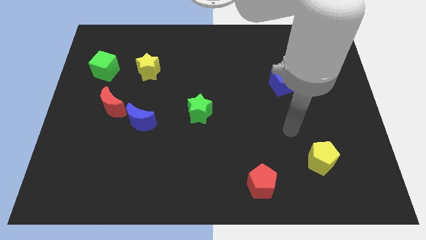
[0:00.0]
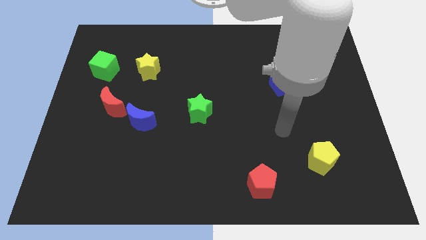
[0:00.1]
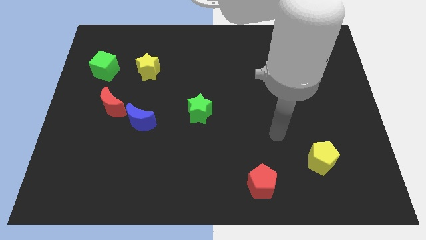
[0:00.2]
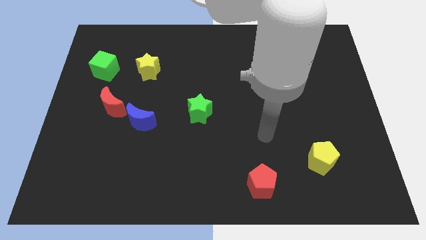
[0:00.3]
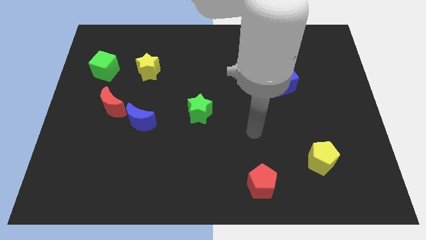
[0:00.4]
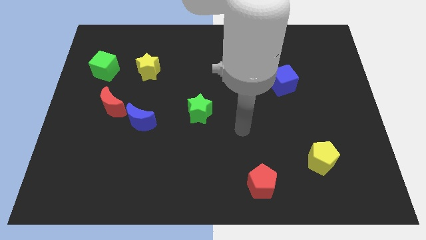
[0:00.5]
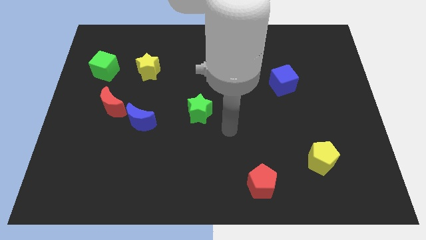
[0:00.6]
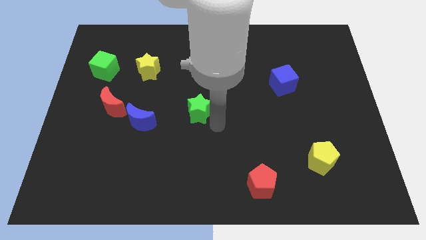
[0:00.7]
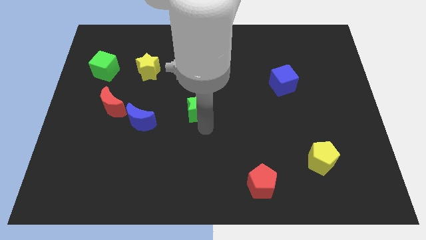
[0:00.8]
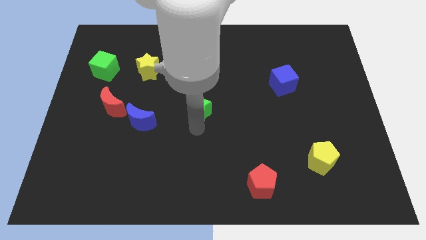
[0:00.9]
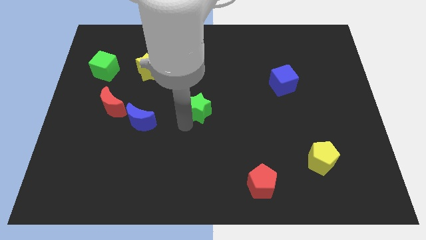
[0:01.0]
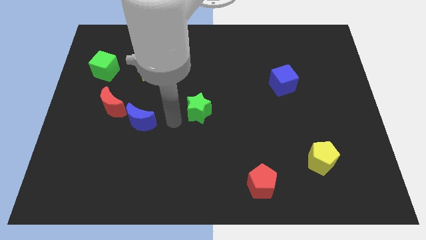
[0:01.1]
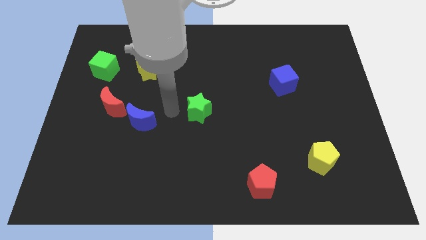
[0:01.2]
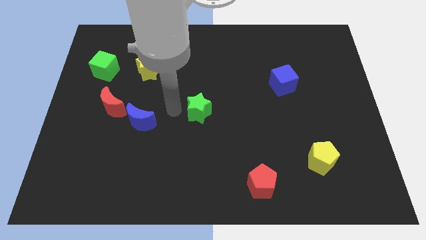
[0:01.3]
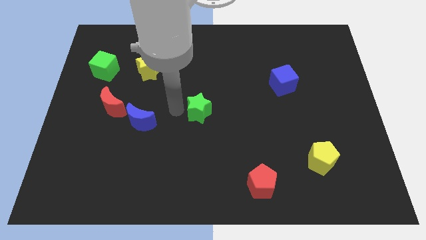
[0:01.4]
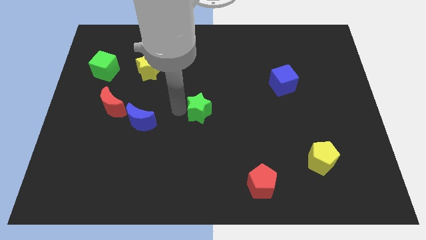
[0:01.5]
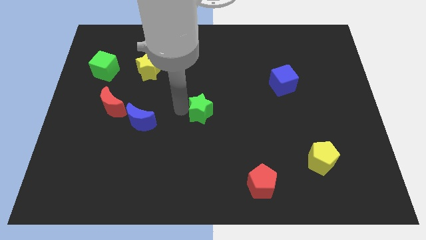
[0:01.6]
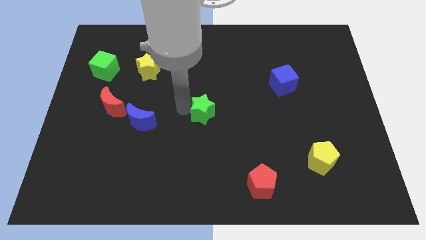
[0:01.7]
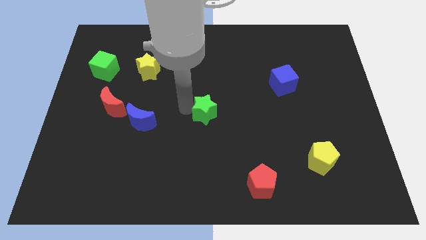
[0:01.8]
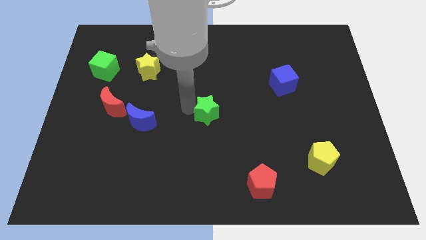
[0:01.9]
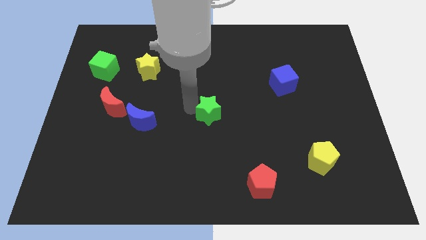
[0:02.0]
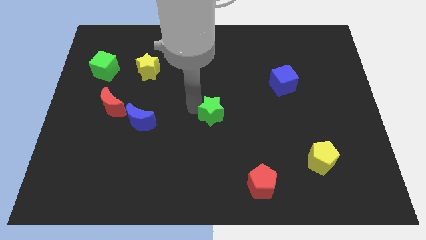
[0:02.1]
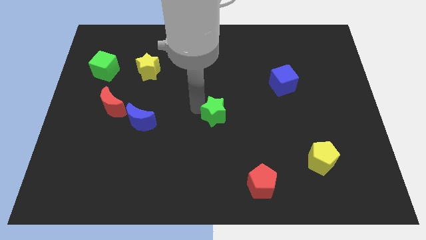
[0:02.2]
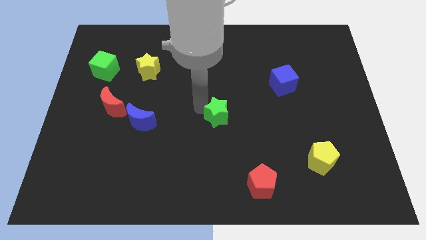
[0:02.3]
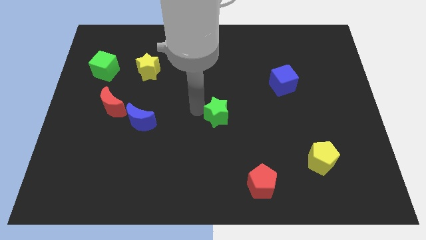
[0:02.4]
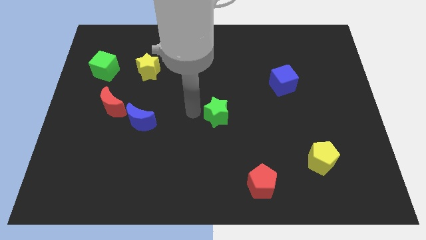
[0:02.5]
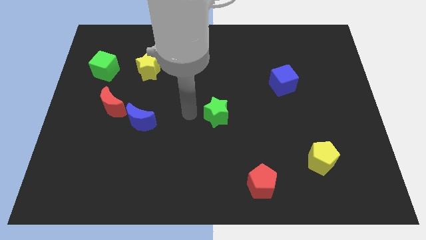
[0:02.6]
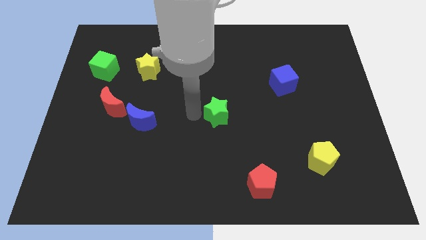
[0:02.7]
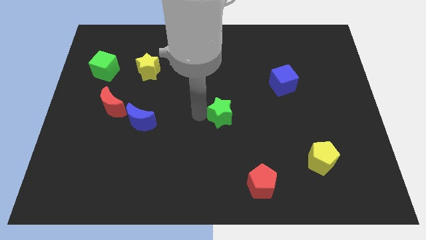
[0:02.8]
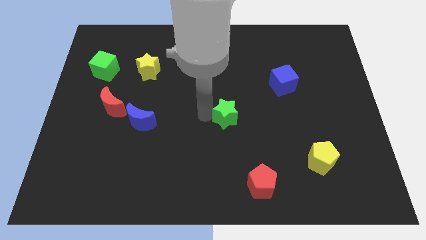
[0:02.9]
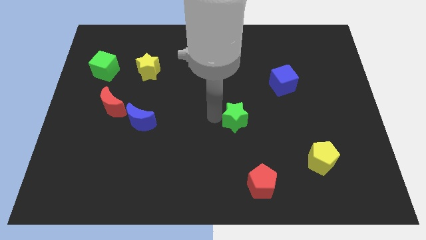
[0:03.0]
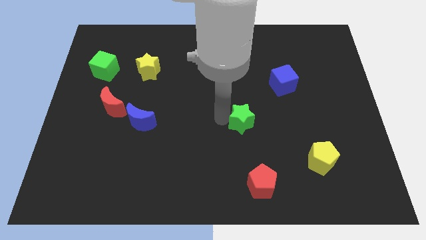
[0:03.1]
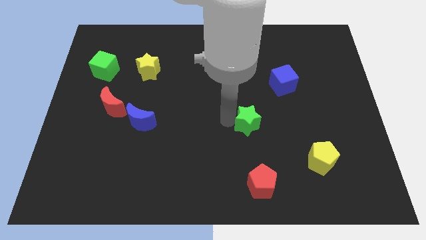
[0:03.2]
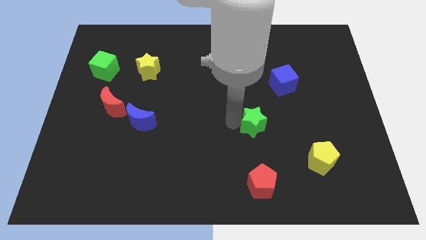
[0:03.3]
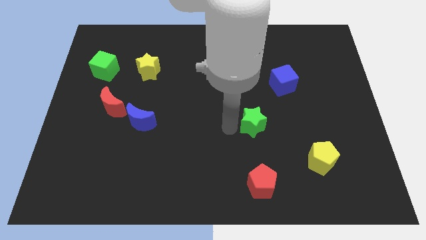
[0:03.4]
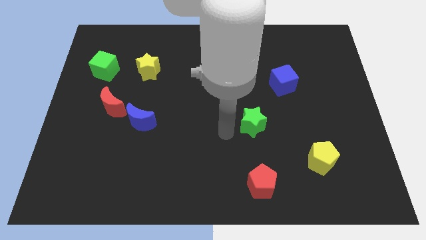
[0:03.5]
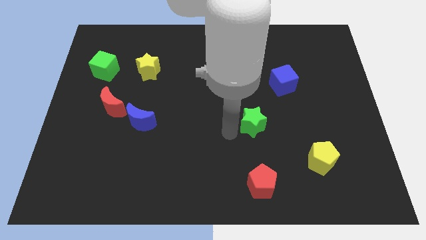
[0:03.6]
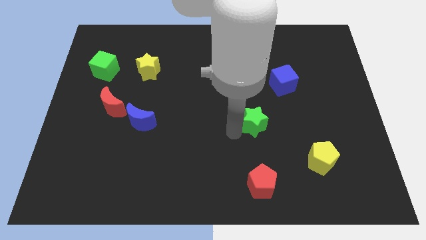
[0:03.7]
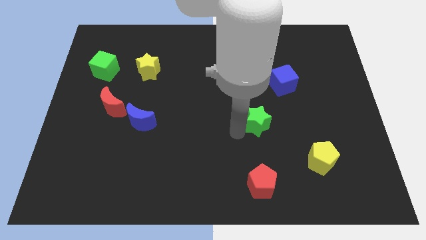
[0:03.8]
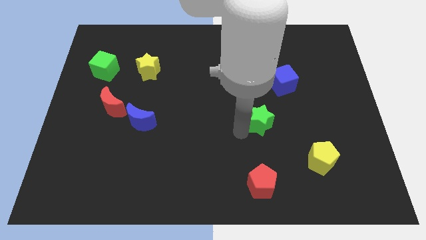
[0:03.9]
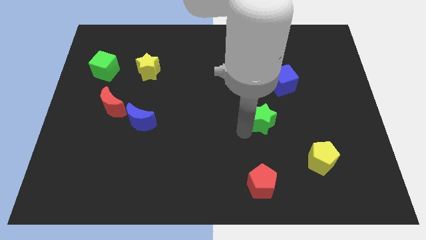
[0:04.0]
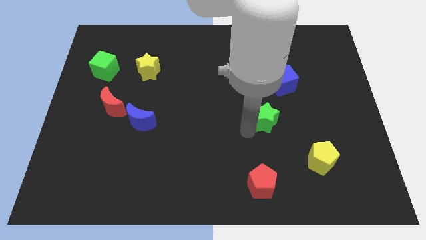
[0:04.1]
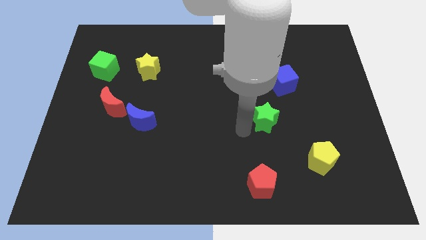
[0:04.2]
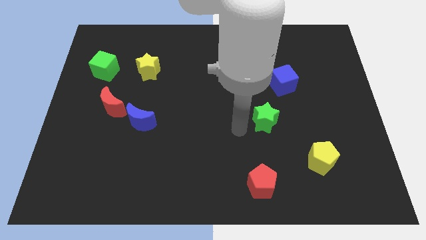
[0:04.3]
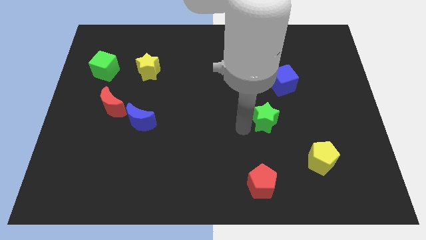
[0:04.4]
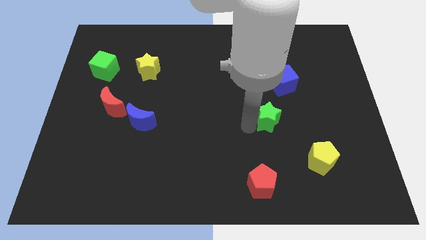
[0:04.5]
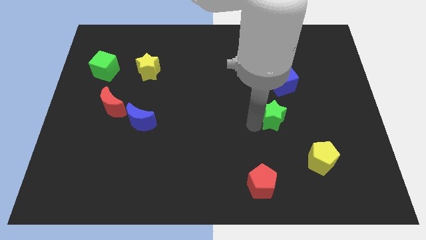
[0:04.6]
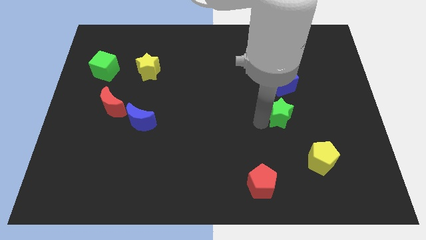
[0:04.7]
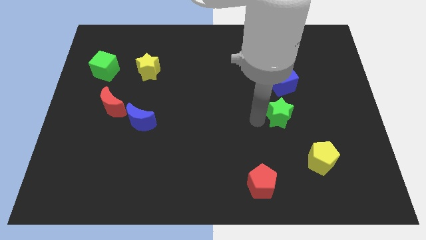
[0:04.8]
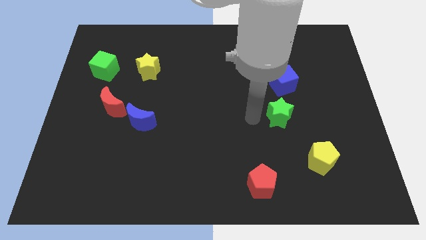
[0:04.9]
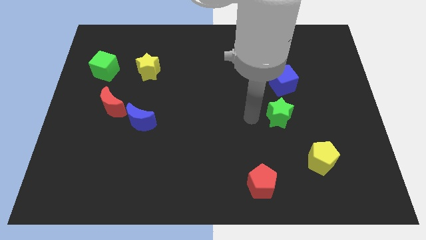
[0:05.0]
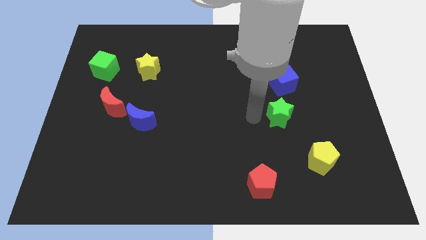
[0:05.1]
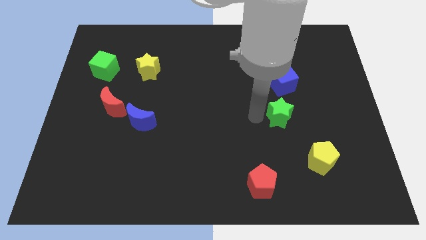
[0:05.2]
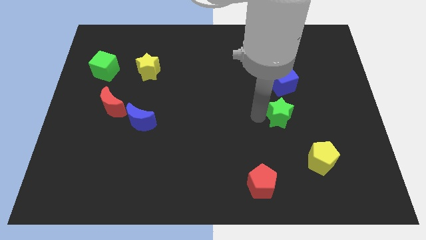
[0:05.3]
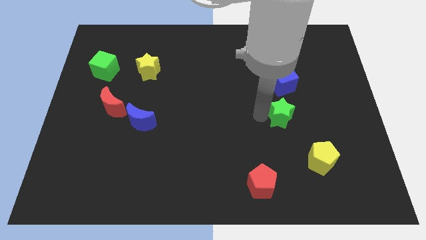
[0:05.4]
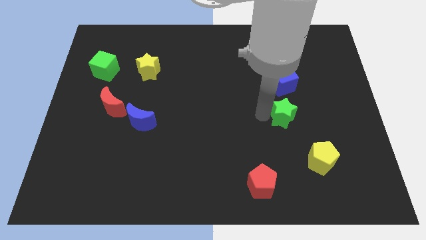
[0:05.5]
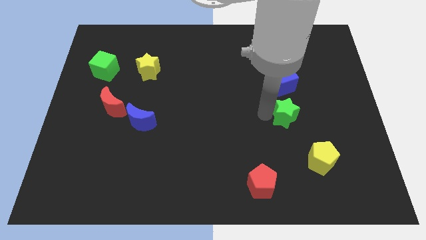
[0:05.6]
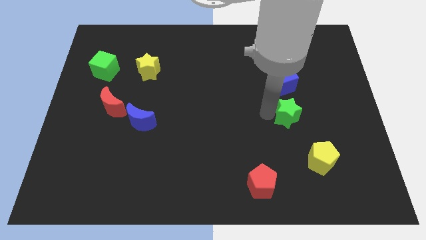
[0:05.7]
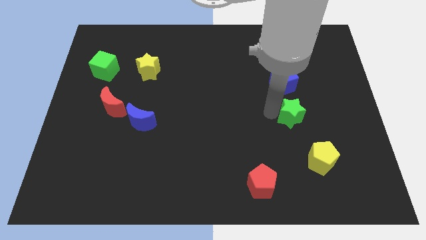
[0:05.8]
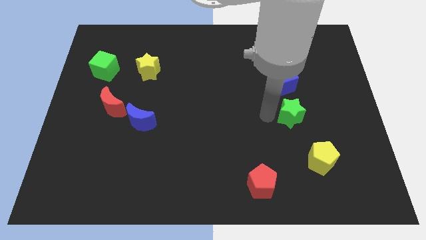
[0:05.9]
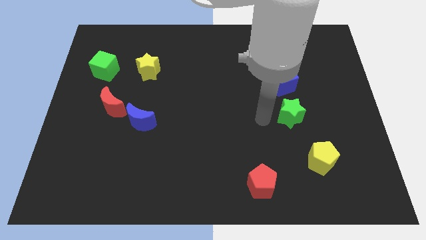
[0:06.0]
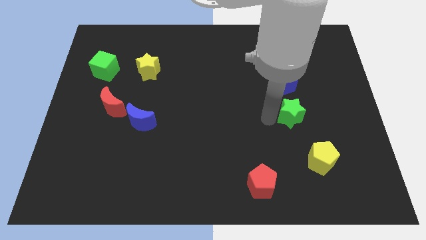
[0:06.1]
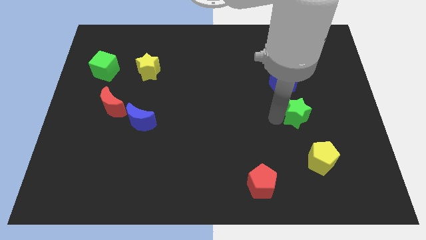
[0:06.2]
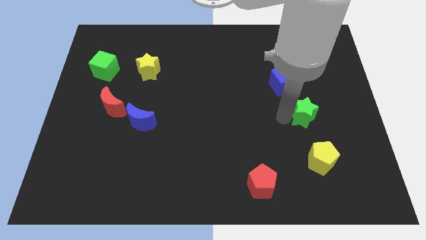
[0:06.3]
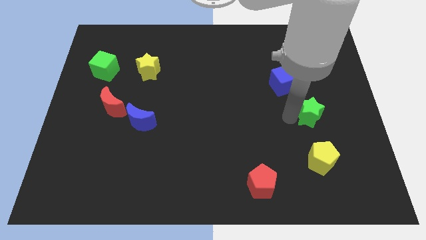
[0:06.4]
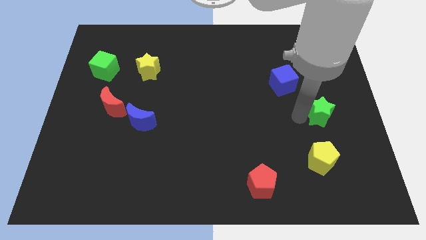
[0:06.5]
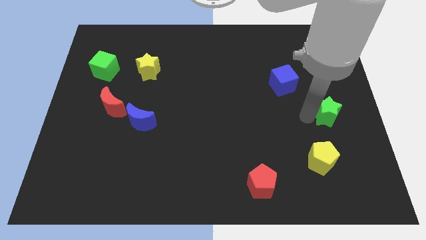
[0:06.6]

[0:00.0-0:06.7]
move the green star to the center right

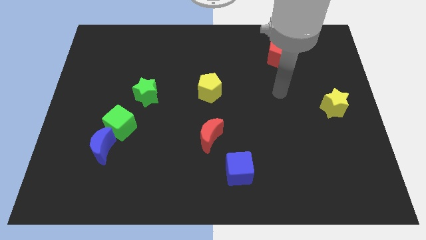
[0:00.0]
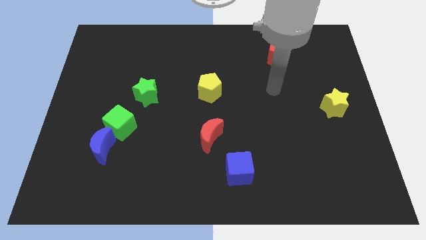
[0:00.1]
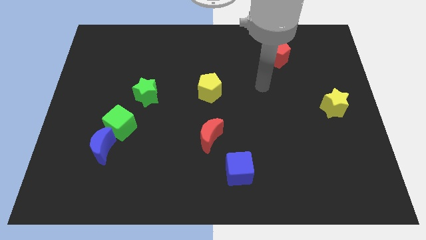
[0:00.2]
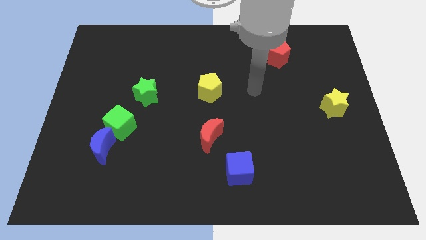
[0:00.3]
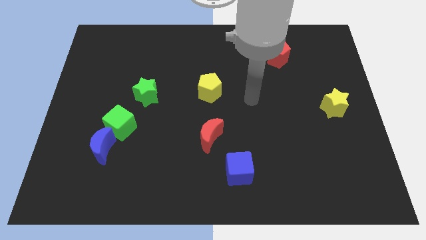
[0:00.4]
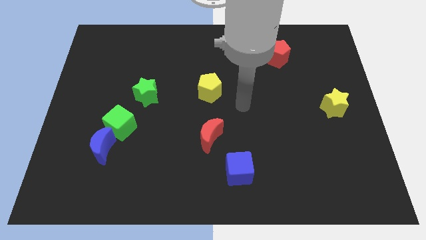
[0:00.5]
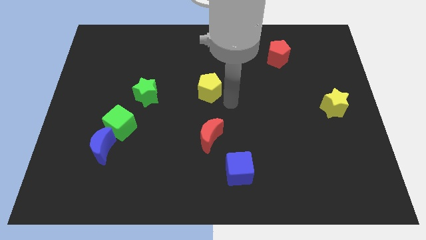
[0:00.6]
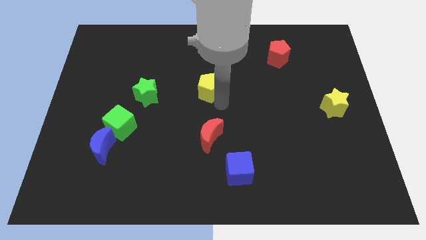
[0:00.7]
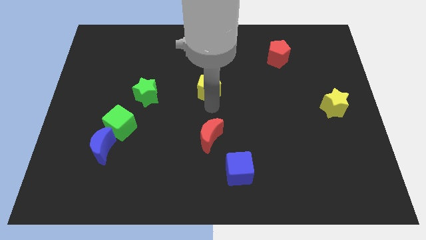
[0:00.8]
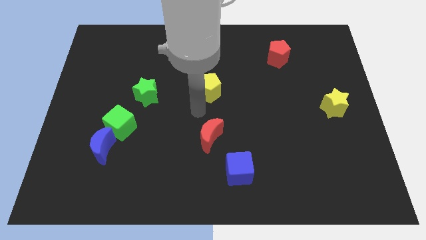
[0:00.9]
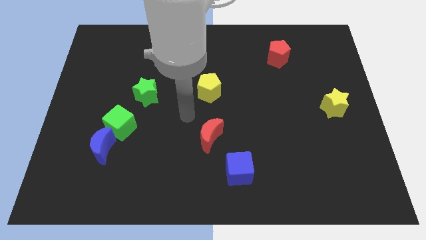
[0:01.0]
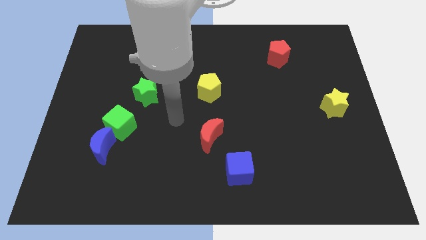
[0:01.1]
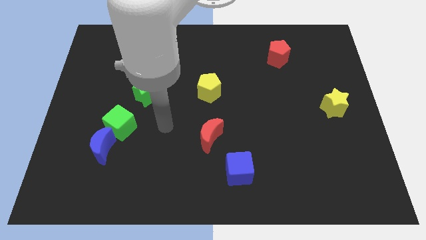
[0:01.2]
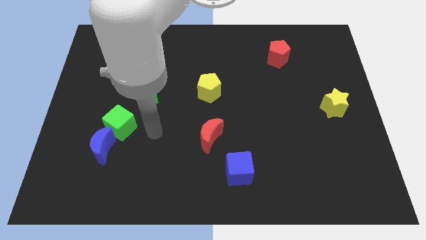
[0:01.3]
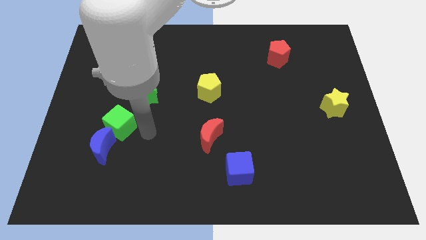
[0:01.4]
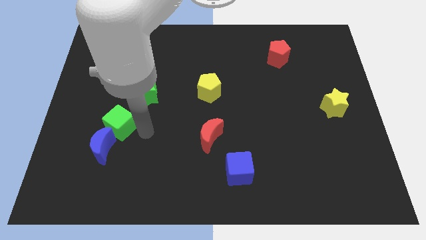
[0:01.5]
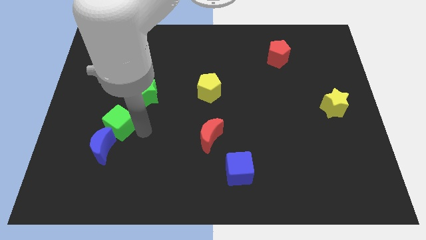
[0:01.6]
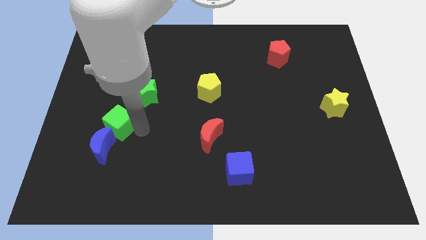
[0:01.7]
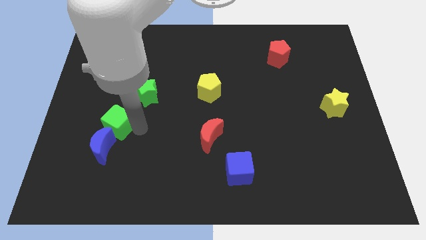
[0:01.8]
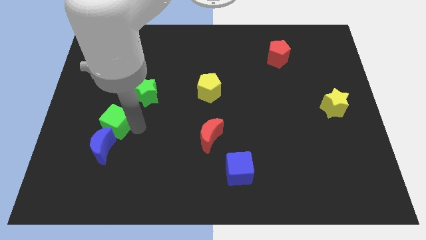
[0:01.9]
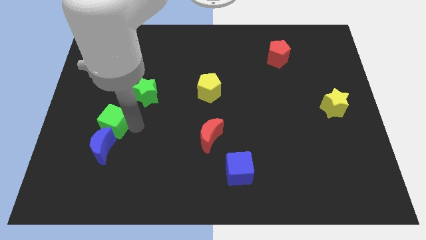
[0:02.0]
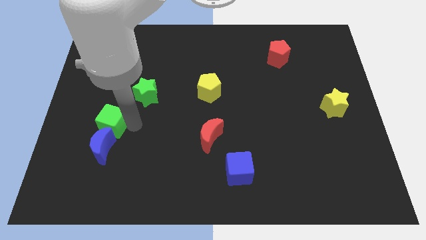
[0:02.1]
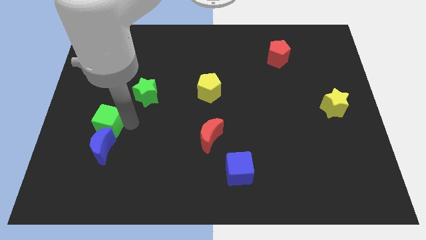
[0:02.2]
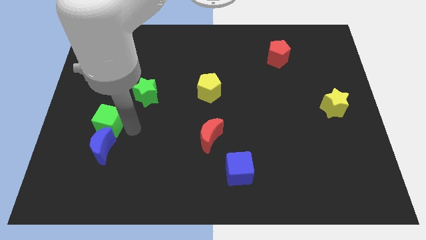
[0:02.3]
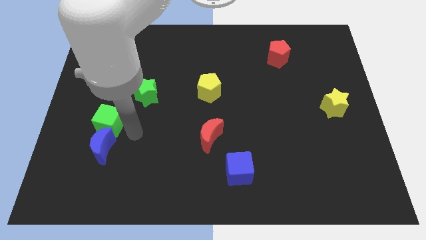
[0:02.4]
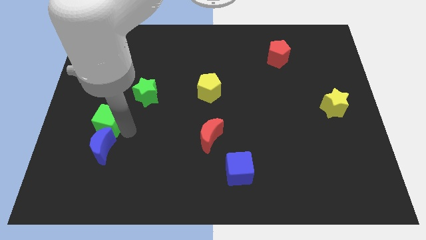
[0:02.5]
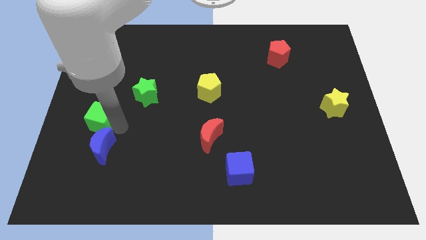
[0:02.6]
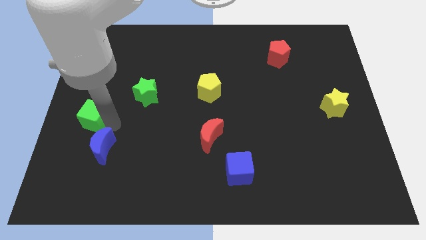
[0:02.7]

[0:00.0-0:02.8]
slide the green cube to the left side
